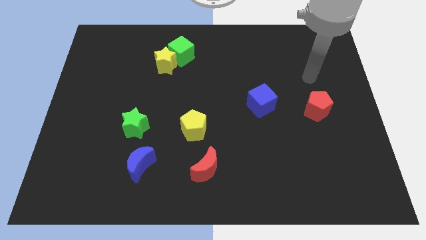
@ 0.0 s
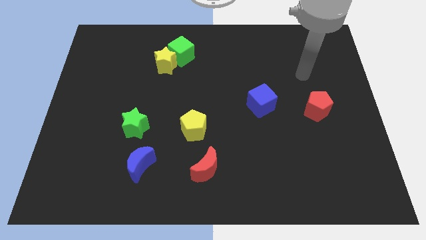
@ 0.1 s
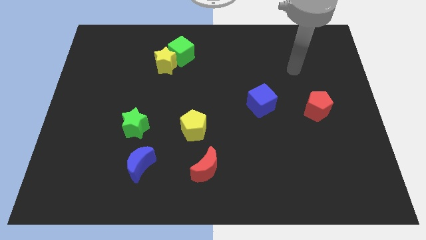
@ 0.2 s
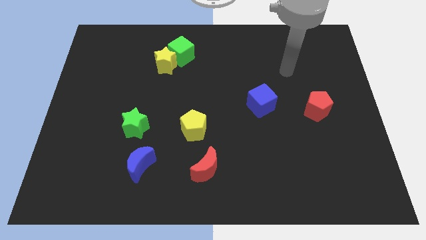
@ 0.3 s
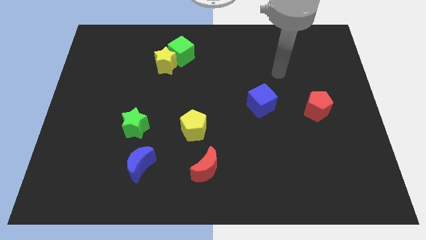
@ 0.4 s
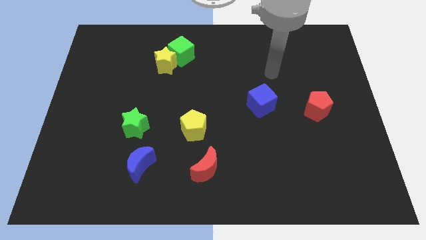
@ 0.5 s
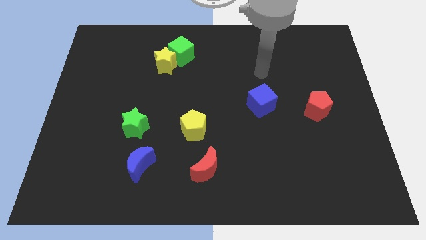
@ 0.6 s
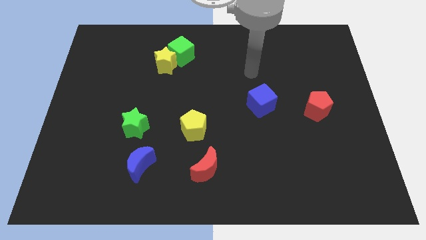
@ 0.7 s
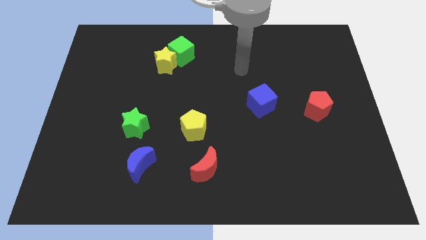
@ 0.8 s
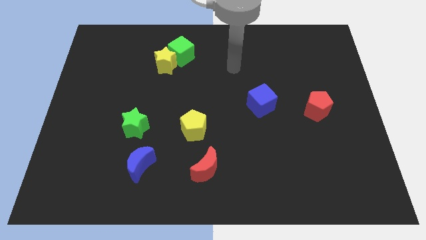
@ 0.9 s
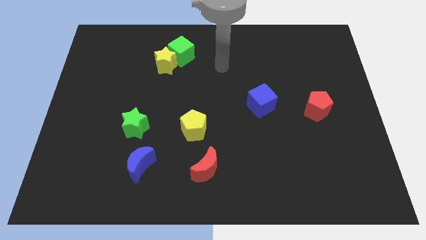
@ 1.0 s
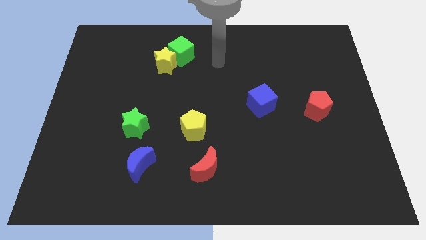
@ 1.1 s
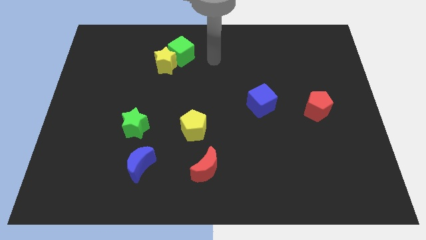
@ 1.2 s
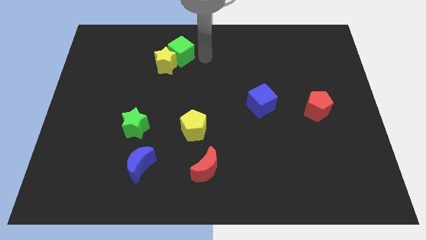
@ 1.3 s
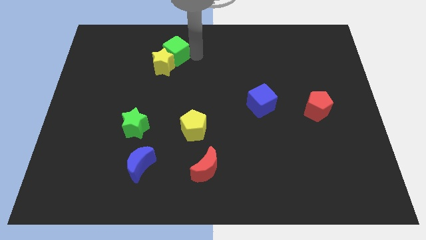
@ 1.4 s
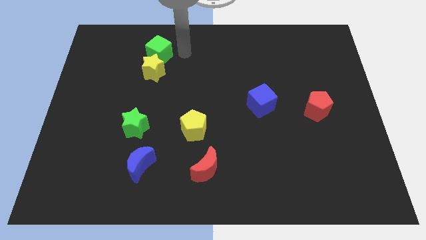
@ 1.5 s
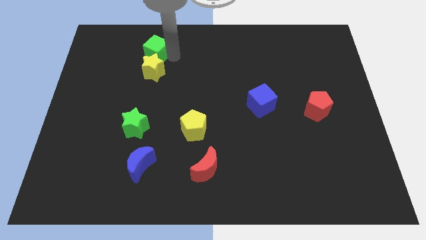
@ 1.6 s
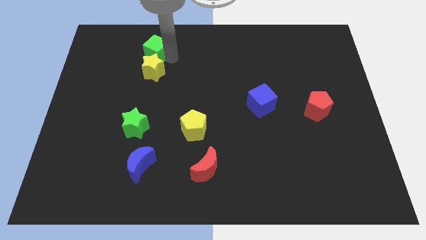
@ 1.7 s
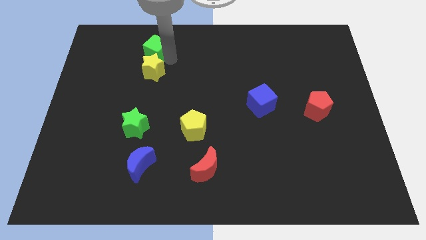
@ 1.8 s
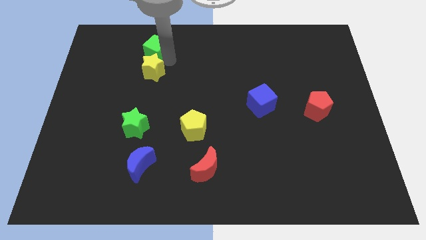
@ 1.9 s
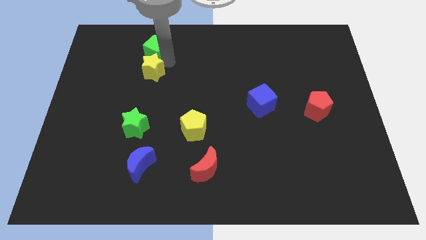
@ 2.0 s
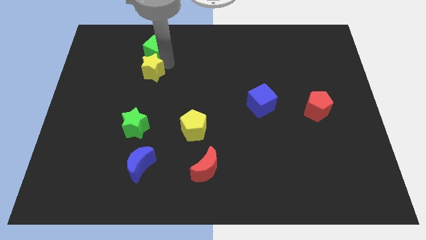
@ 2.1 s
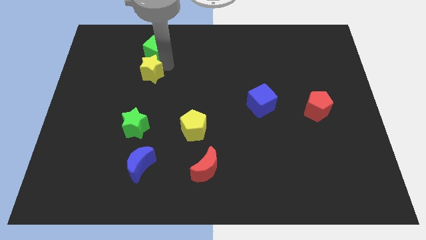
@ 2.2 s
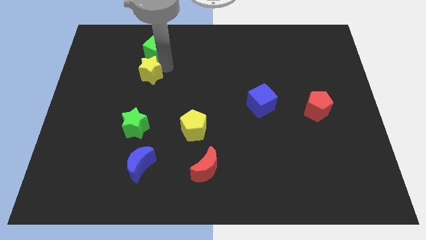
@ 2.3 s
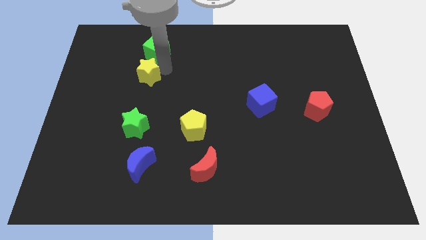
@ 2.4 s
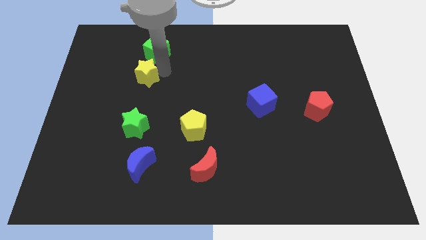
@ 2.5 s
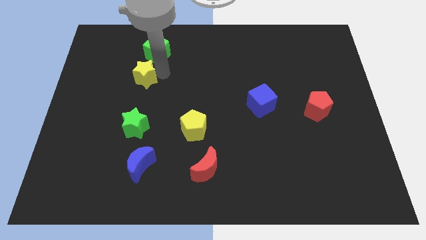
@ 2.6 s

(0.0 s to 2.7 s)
slightly move the yellow star downwards and to the left

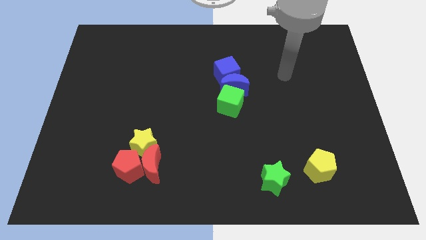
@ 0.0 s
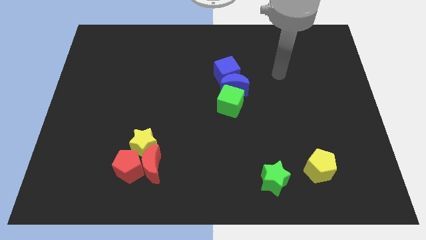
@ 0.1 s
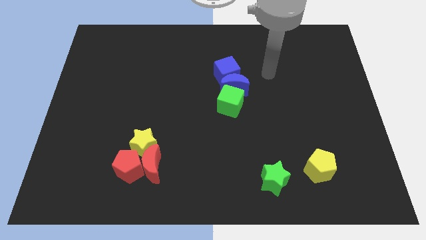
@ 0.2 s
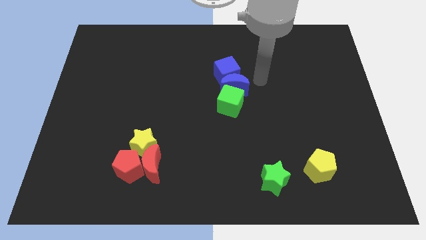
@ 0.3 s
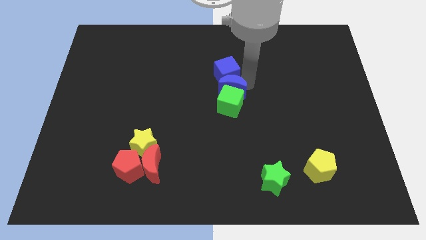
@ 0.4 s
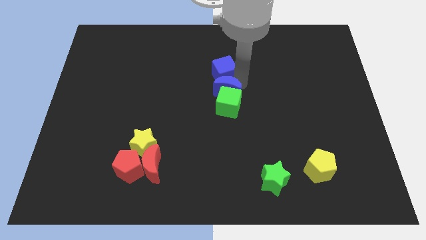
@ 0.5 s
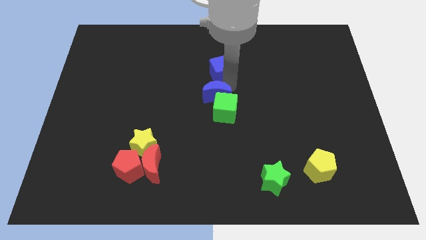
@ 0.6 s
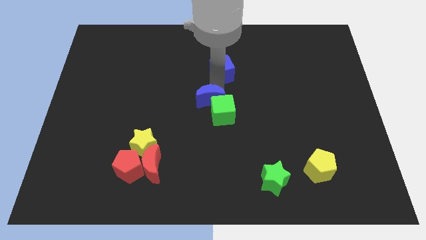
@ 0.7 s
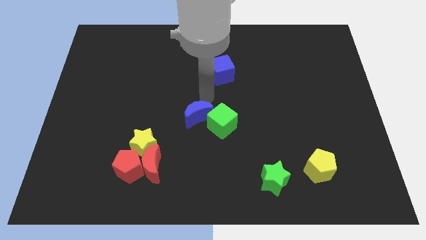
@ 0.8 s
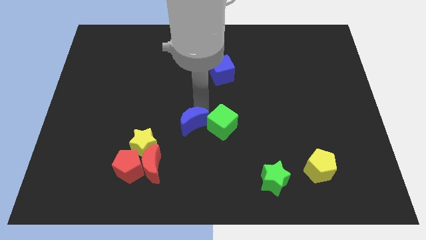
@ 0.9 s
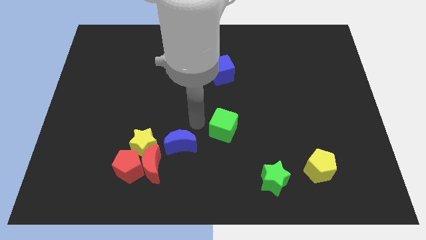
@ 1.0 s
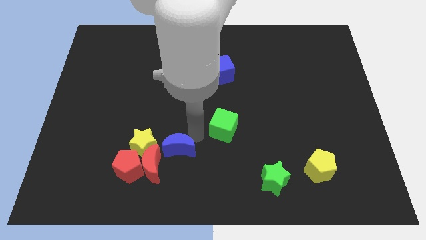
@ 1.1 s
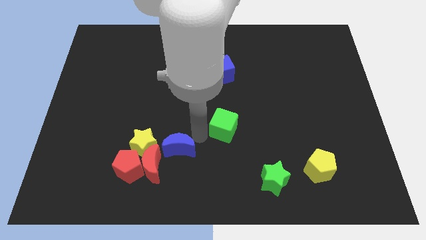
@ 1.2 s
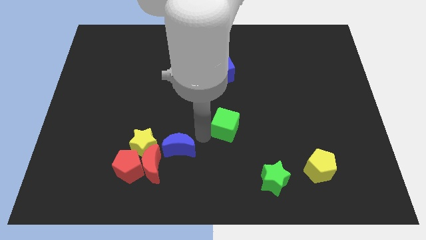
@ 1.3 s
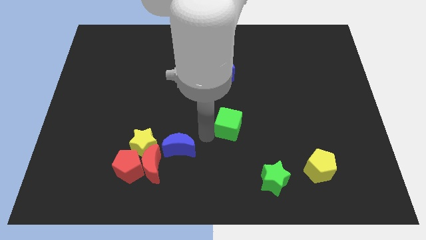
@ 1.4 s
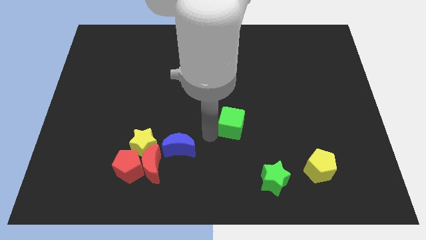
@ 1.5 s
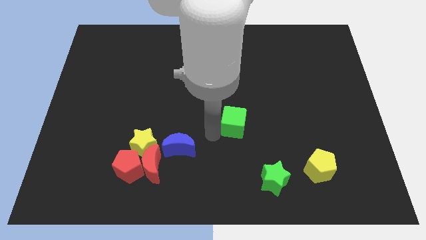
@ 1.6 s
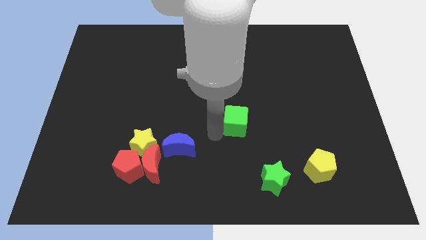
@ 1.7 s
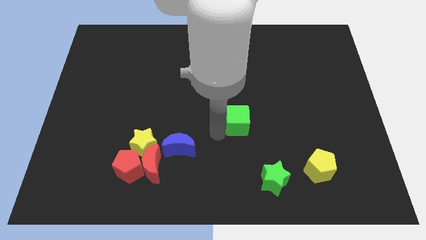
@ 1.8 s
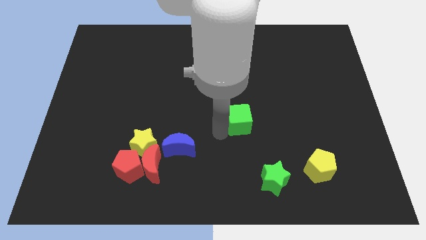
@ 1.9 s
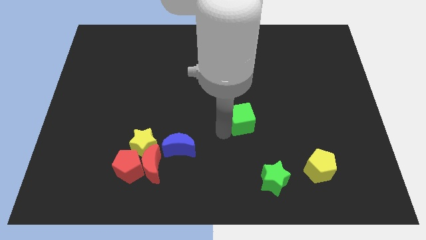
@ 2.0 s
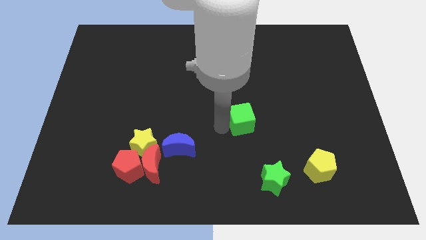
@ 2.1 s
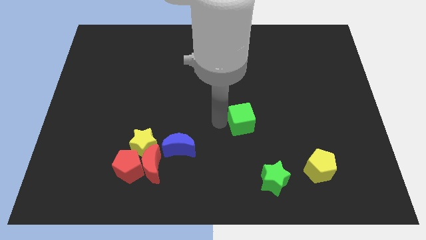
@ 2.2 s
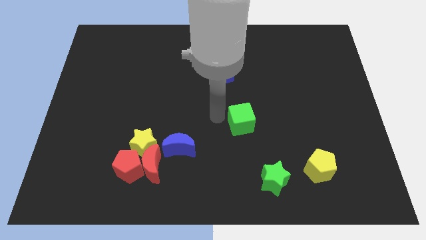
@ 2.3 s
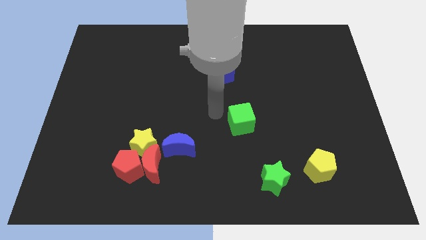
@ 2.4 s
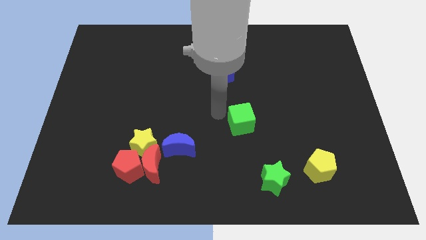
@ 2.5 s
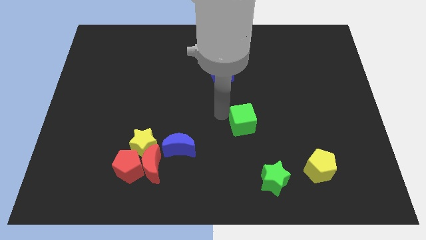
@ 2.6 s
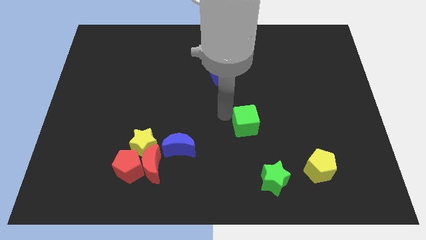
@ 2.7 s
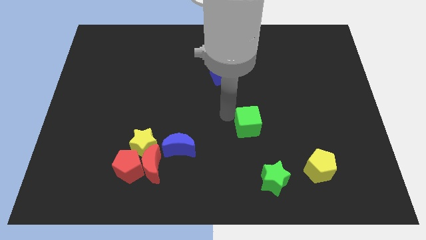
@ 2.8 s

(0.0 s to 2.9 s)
push the green cube diagonally downwards and to the right a little bit

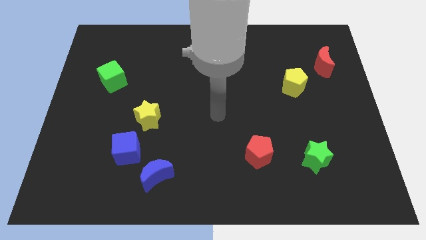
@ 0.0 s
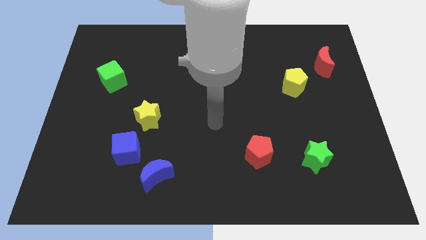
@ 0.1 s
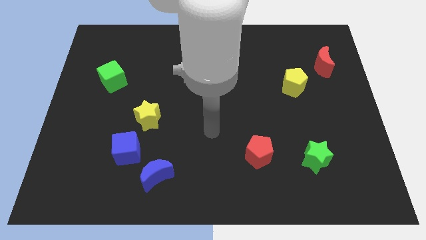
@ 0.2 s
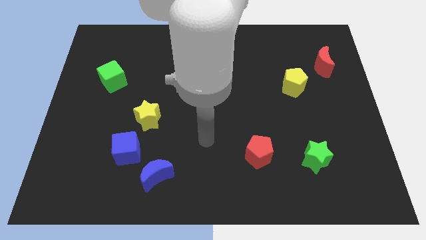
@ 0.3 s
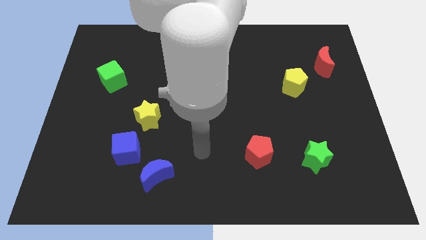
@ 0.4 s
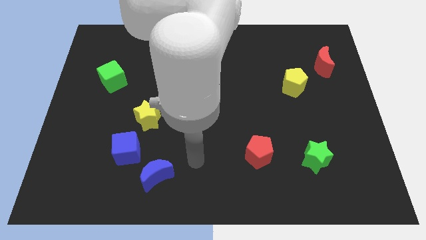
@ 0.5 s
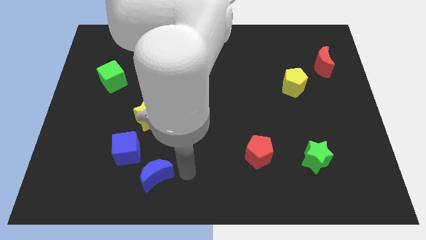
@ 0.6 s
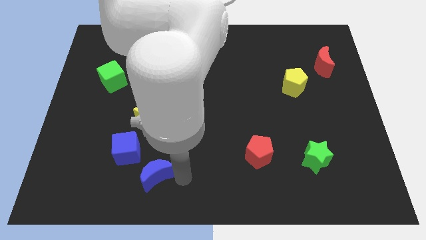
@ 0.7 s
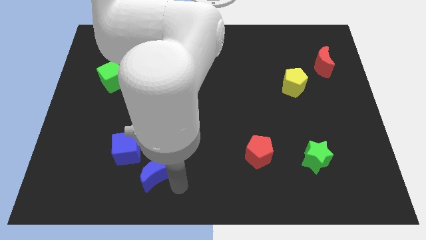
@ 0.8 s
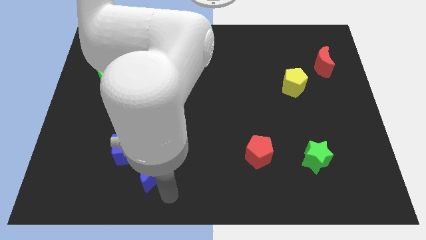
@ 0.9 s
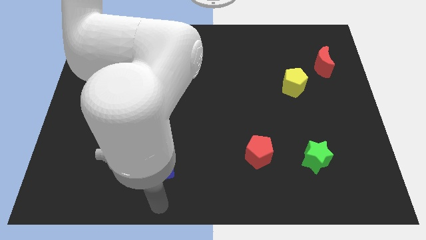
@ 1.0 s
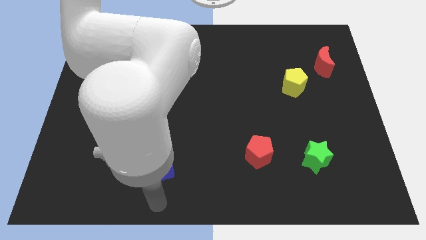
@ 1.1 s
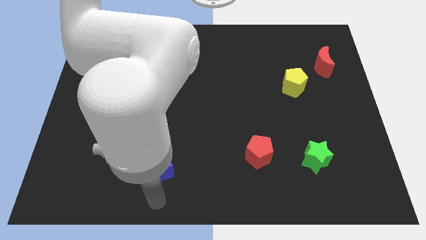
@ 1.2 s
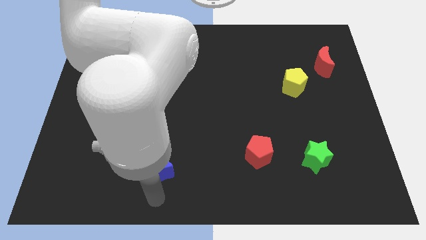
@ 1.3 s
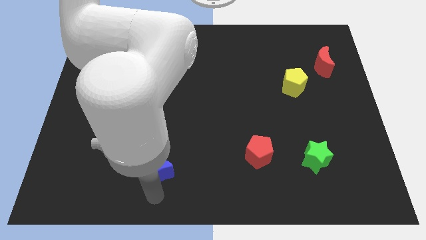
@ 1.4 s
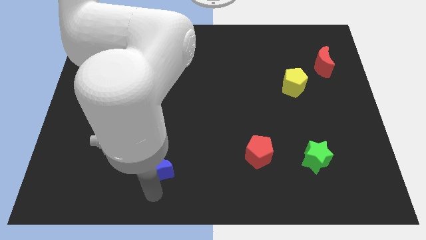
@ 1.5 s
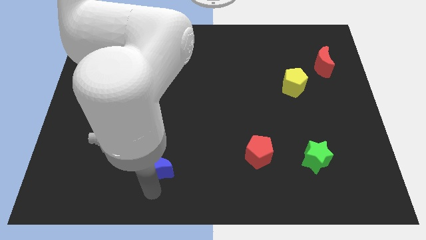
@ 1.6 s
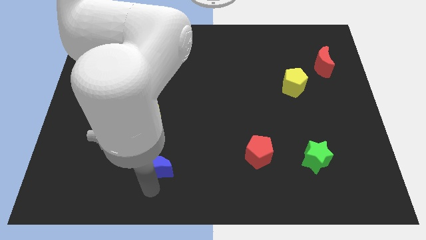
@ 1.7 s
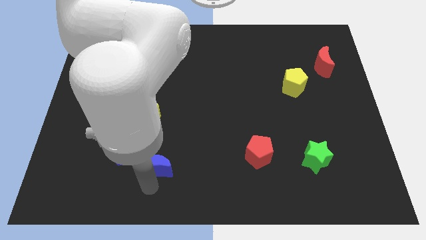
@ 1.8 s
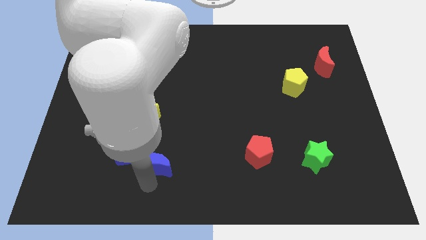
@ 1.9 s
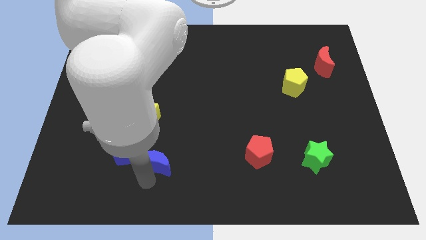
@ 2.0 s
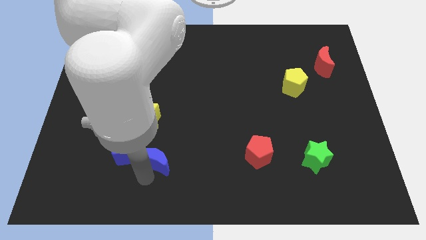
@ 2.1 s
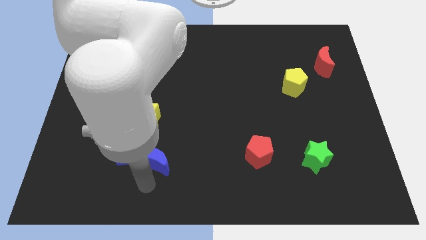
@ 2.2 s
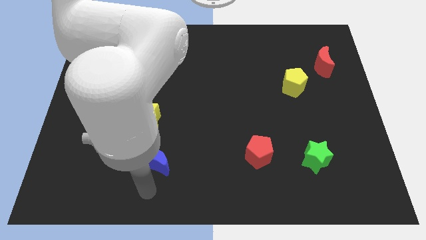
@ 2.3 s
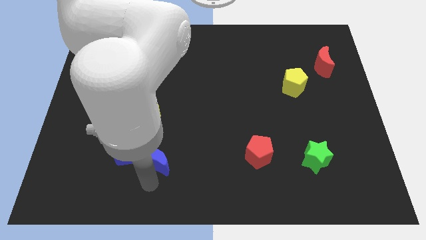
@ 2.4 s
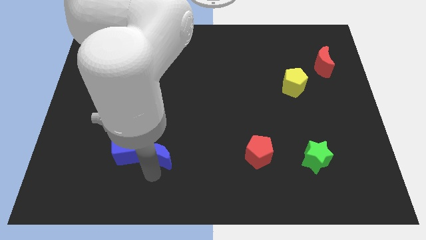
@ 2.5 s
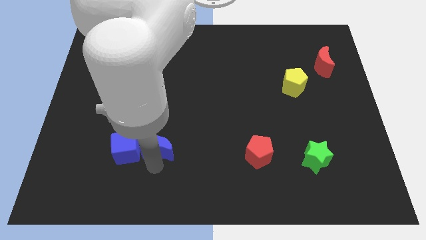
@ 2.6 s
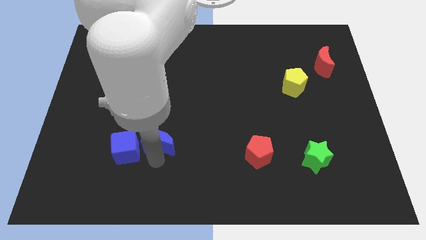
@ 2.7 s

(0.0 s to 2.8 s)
slightly slide the blue moon upwards

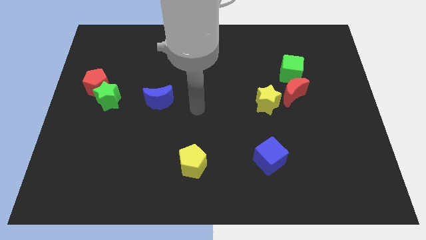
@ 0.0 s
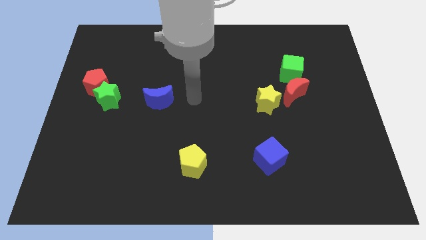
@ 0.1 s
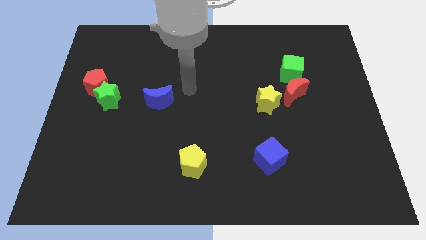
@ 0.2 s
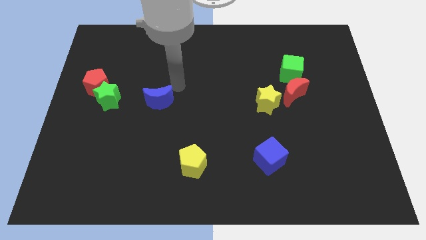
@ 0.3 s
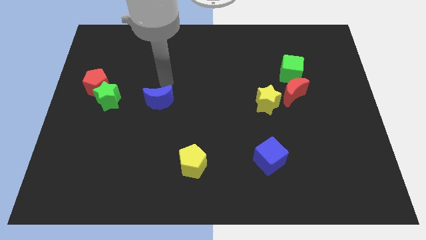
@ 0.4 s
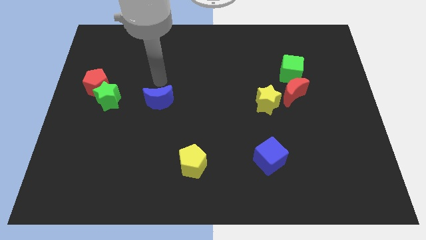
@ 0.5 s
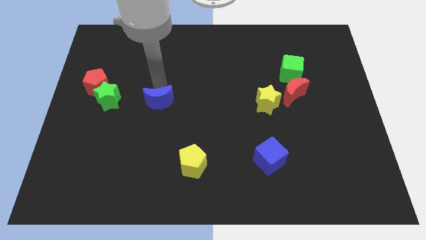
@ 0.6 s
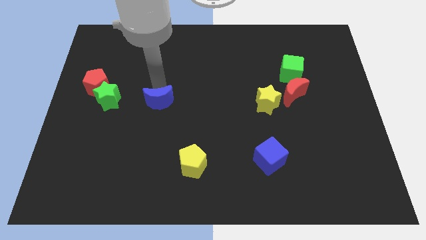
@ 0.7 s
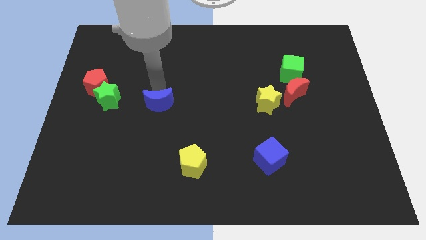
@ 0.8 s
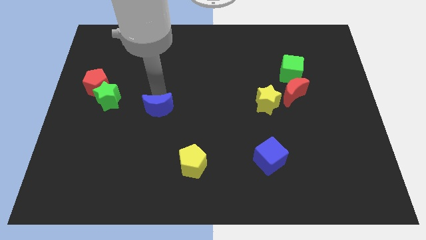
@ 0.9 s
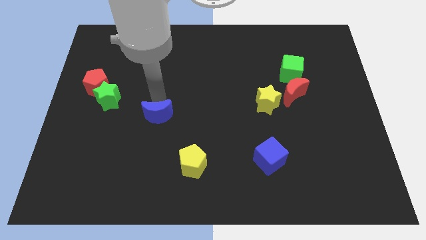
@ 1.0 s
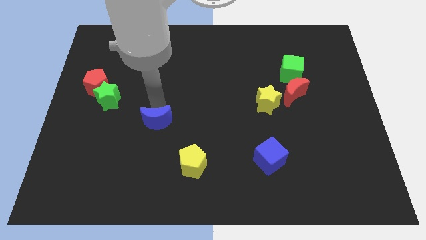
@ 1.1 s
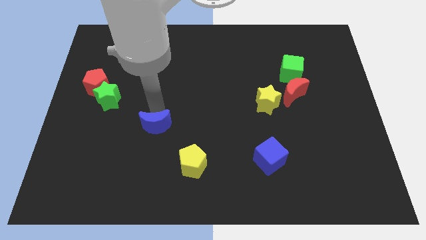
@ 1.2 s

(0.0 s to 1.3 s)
slightly slide the blue moon down
